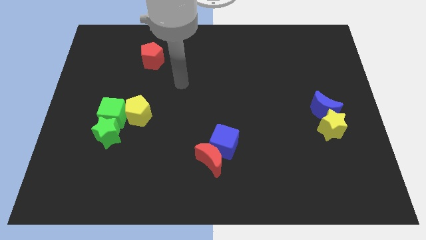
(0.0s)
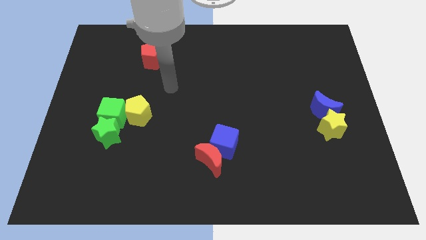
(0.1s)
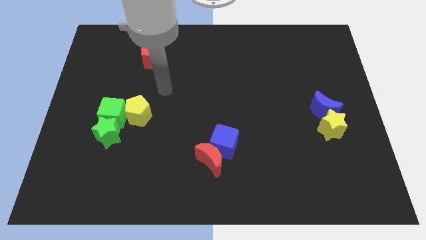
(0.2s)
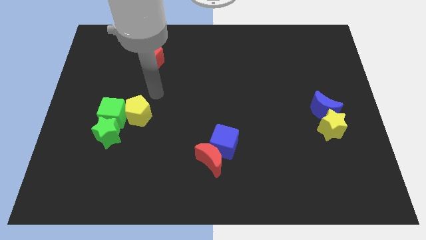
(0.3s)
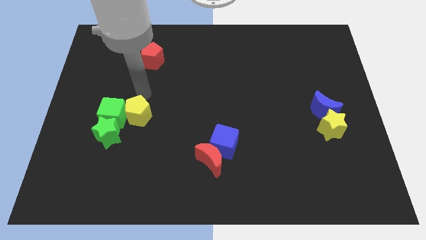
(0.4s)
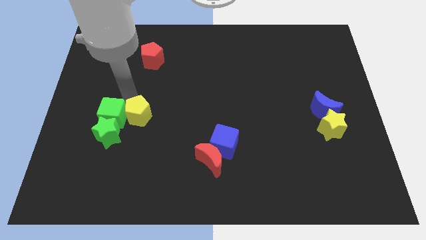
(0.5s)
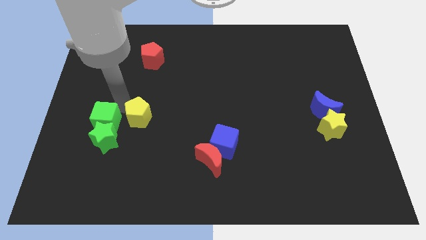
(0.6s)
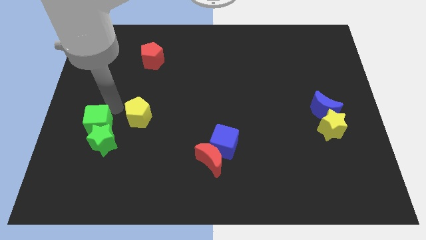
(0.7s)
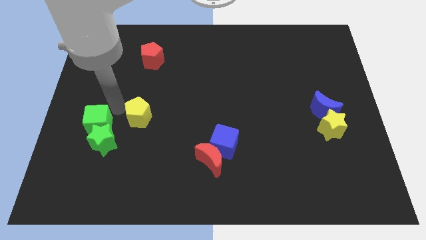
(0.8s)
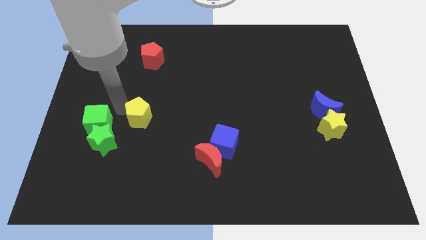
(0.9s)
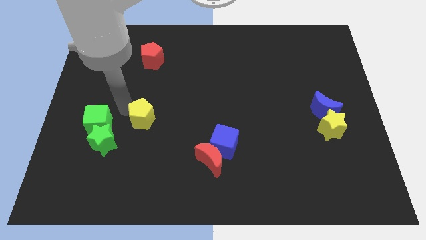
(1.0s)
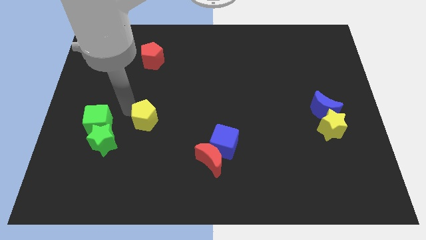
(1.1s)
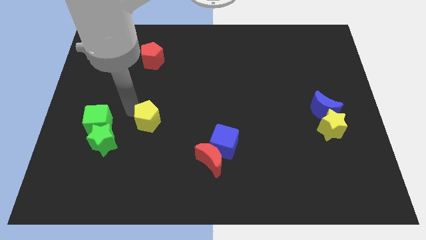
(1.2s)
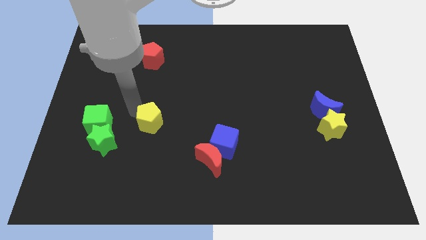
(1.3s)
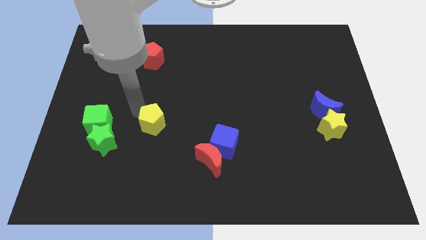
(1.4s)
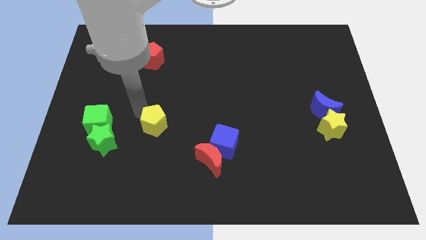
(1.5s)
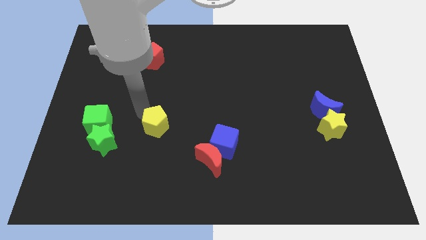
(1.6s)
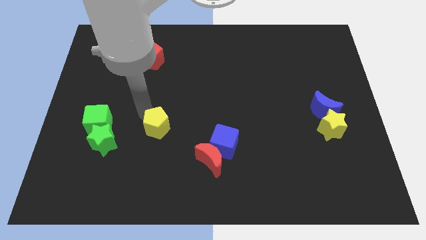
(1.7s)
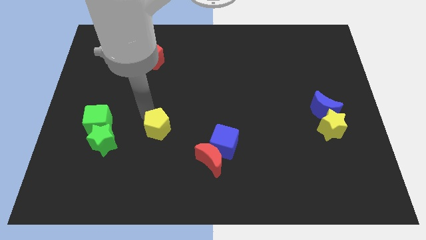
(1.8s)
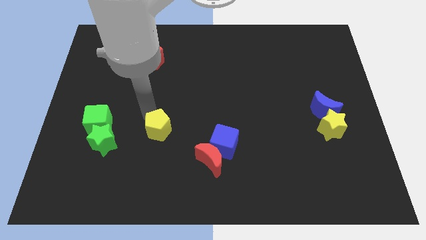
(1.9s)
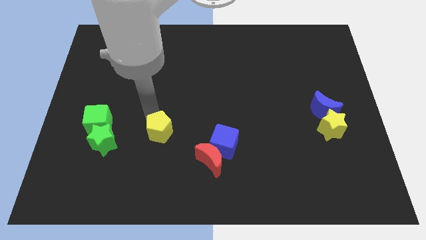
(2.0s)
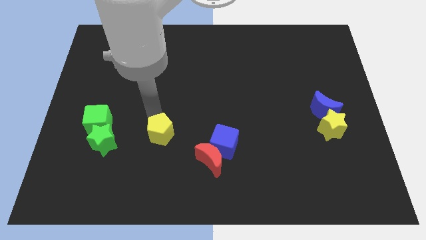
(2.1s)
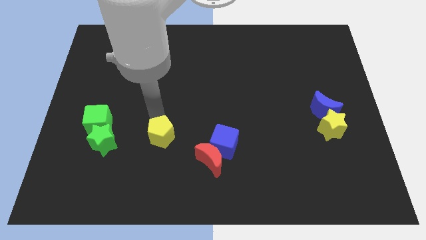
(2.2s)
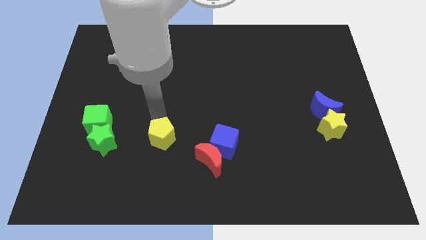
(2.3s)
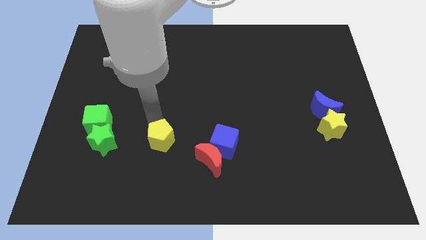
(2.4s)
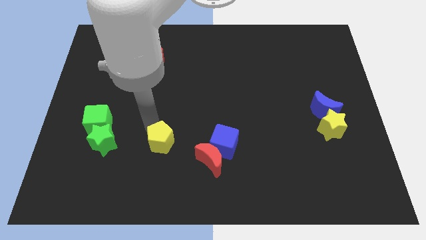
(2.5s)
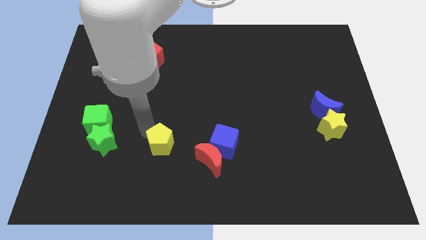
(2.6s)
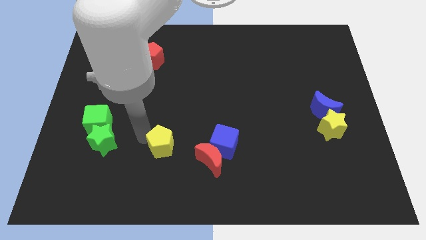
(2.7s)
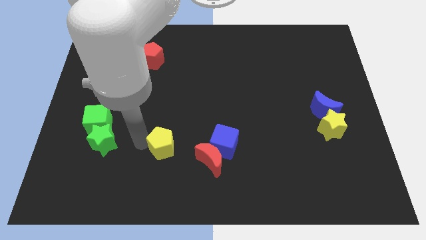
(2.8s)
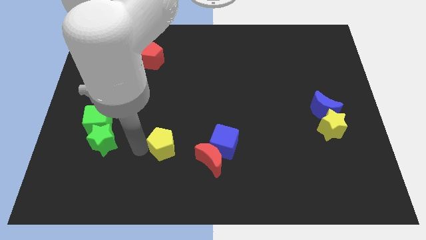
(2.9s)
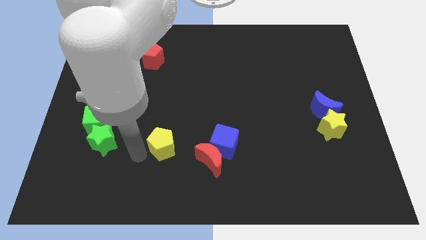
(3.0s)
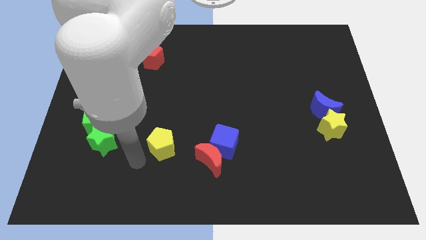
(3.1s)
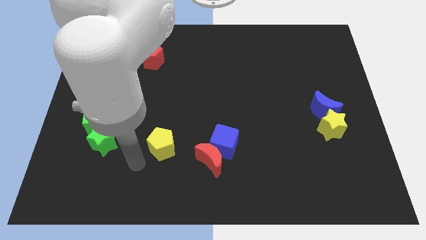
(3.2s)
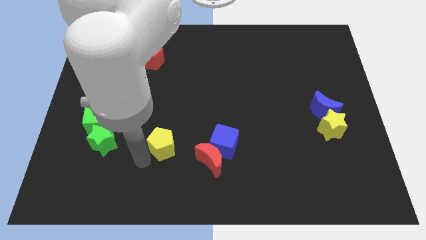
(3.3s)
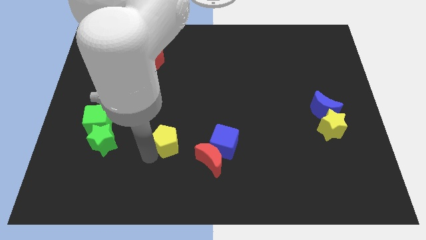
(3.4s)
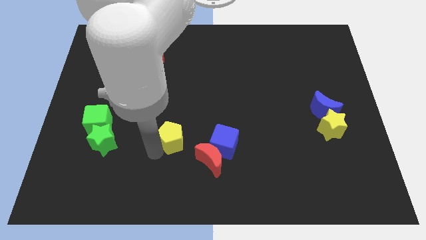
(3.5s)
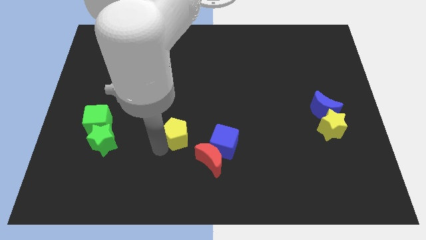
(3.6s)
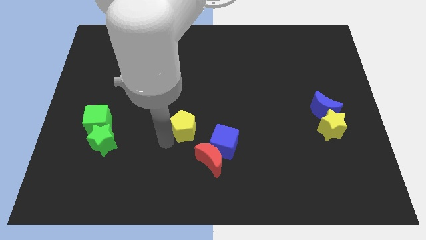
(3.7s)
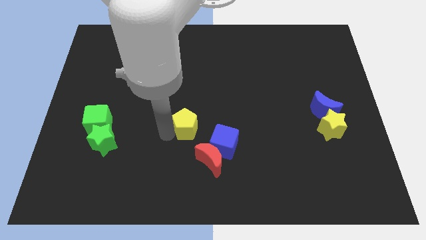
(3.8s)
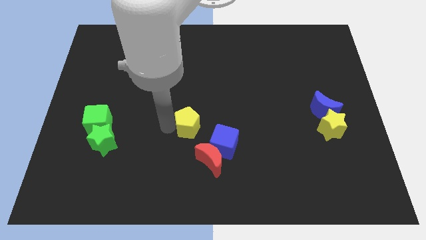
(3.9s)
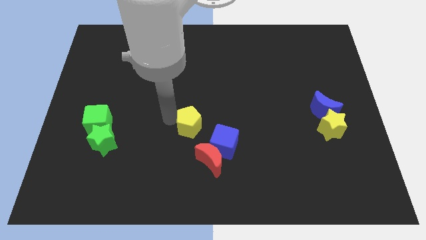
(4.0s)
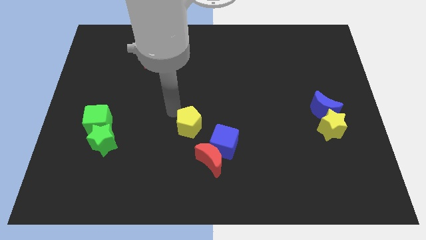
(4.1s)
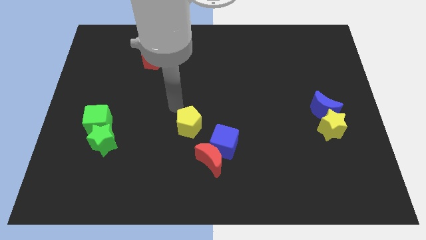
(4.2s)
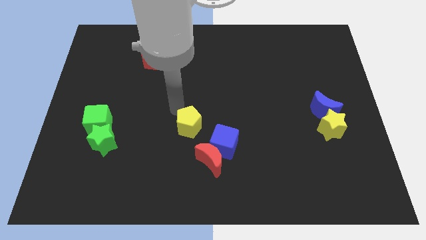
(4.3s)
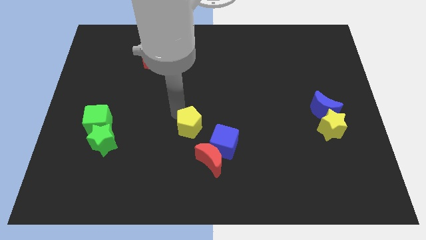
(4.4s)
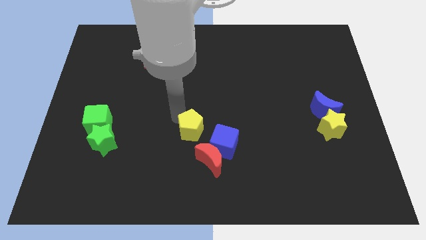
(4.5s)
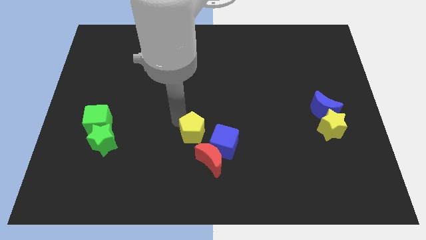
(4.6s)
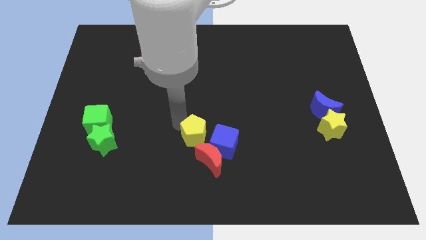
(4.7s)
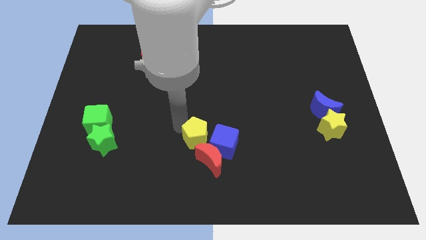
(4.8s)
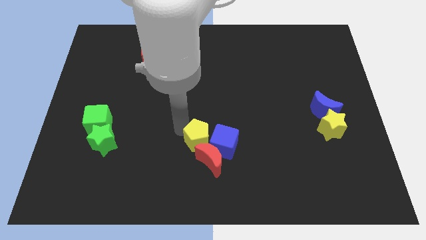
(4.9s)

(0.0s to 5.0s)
slide the yellow pentagon next to the red moon

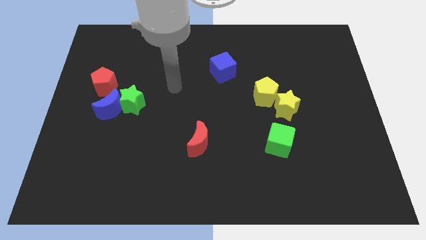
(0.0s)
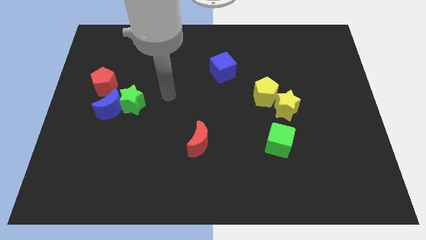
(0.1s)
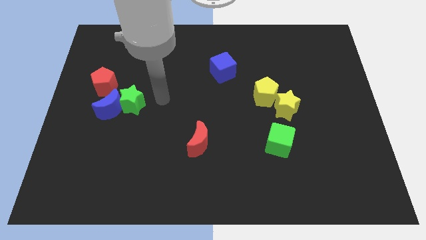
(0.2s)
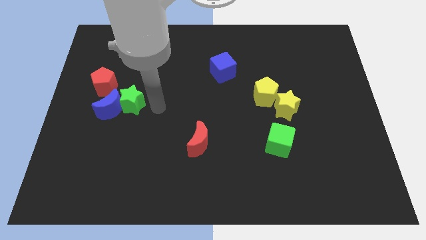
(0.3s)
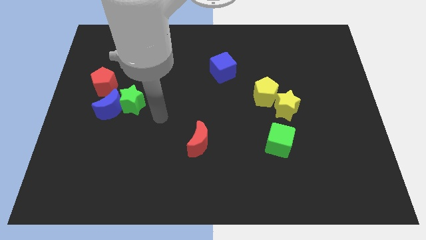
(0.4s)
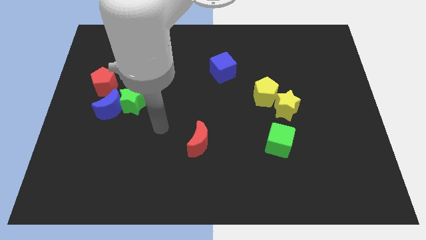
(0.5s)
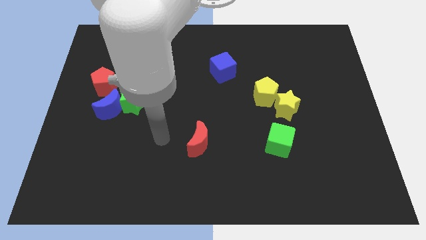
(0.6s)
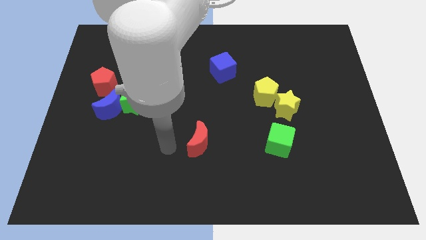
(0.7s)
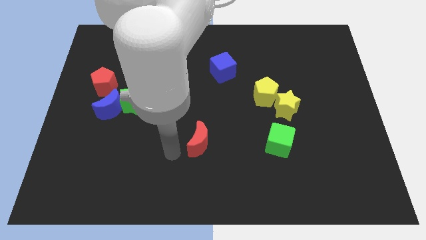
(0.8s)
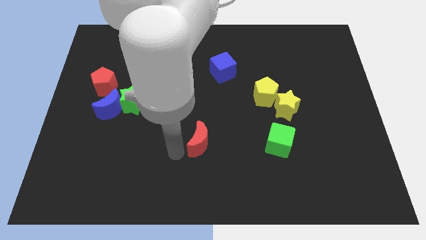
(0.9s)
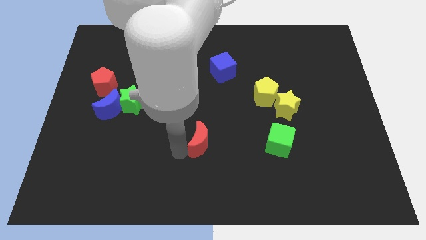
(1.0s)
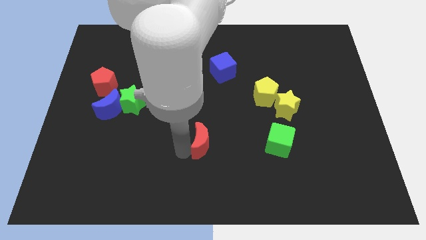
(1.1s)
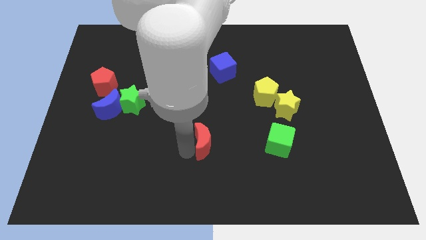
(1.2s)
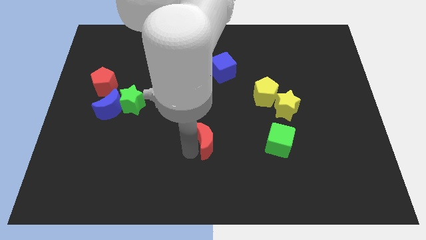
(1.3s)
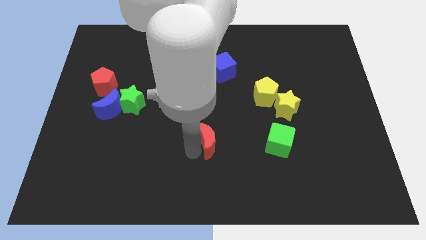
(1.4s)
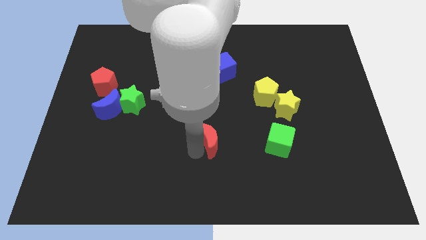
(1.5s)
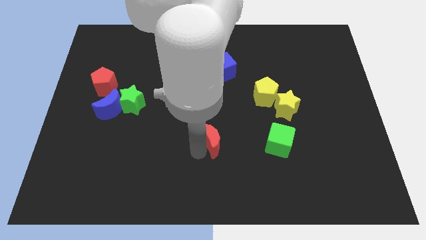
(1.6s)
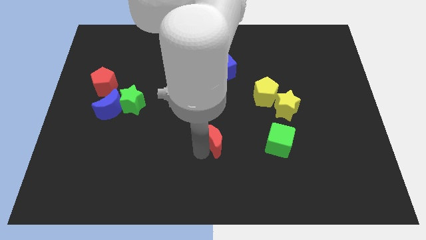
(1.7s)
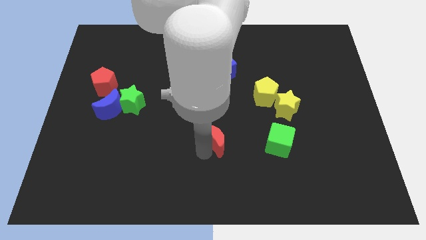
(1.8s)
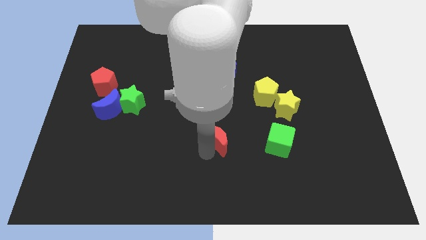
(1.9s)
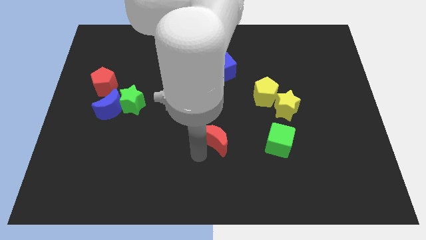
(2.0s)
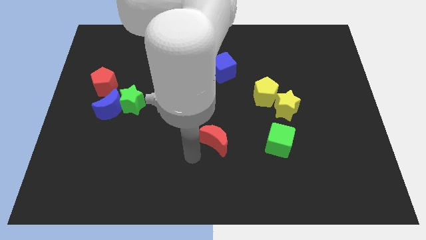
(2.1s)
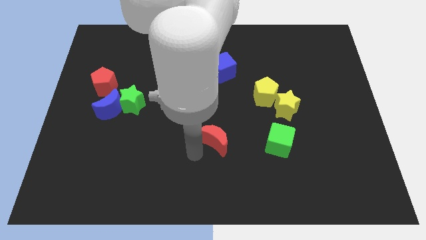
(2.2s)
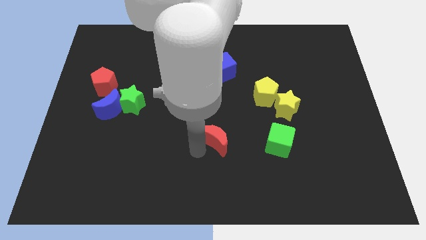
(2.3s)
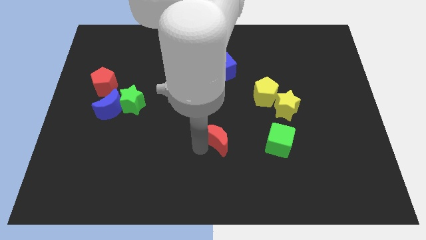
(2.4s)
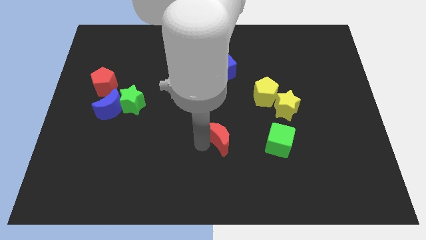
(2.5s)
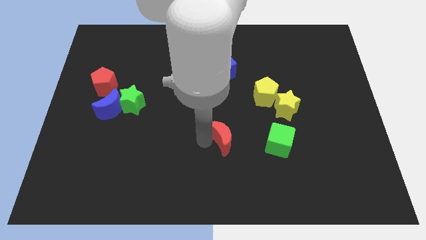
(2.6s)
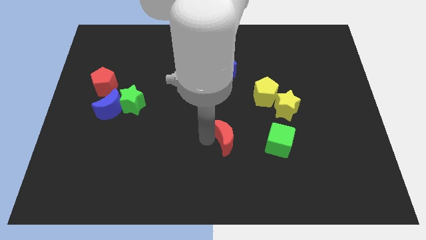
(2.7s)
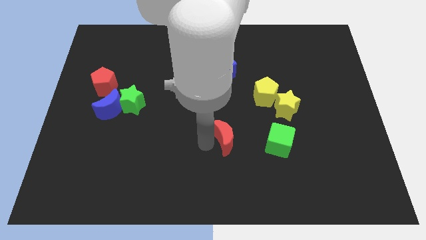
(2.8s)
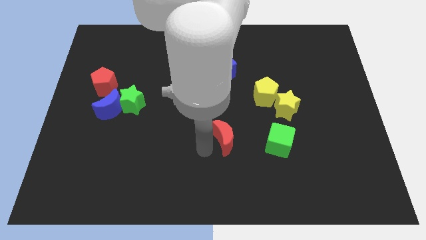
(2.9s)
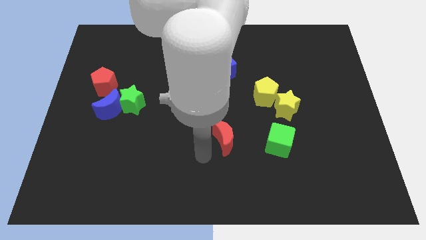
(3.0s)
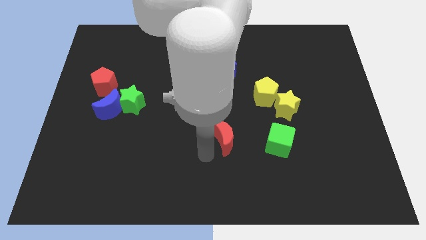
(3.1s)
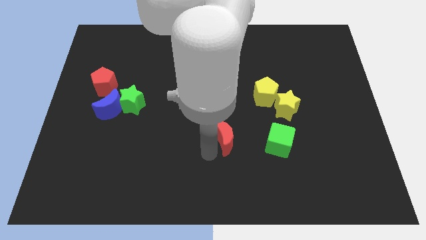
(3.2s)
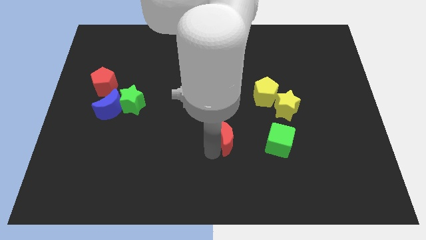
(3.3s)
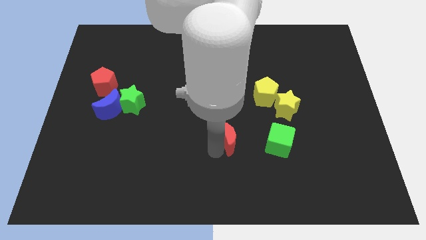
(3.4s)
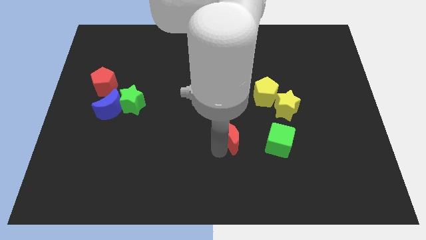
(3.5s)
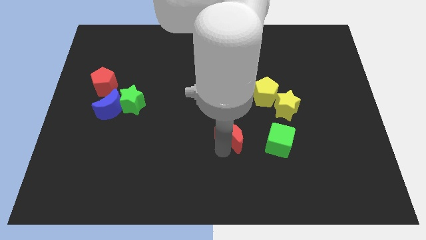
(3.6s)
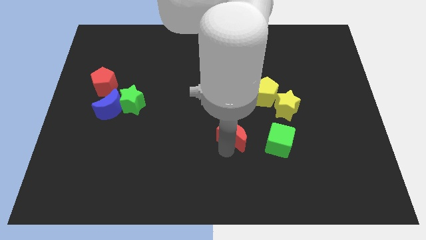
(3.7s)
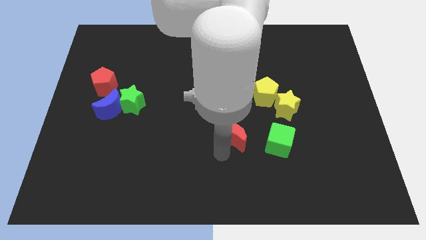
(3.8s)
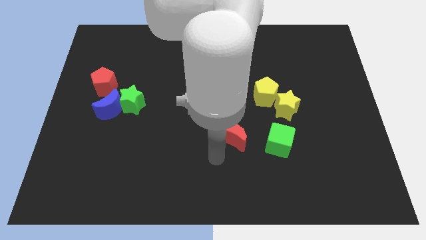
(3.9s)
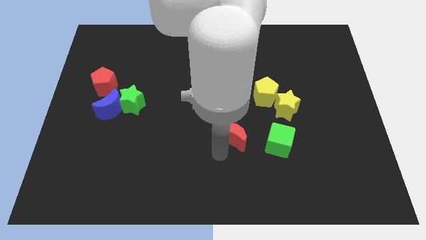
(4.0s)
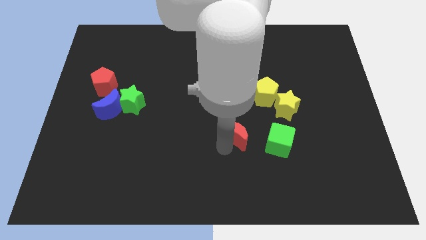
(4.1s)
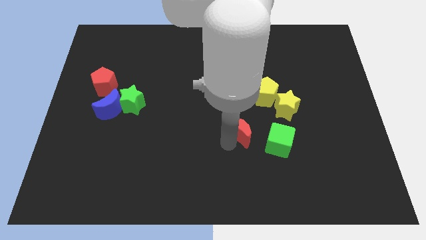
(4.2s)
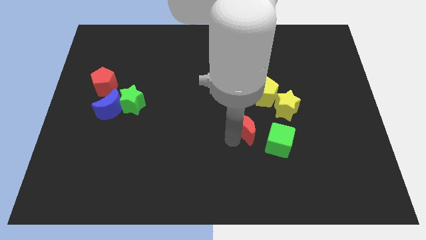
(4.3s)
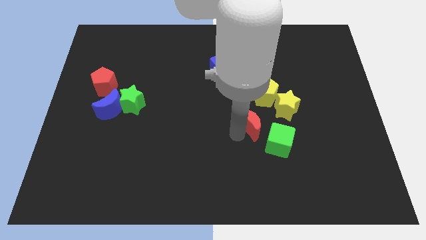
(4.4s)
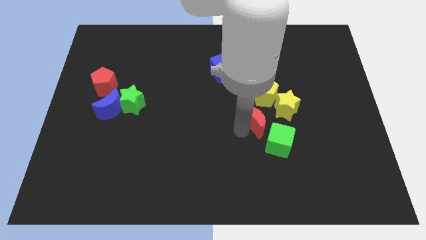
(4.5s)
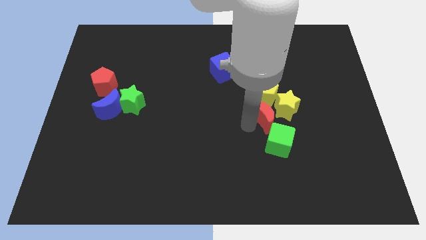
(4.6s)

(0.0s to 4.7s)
put the red moon towards the yellow star
